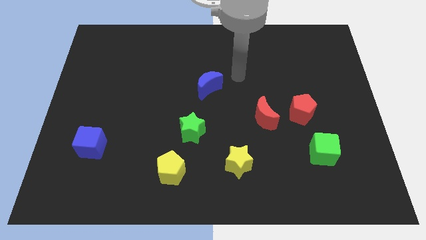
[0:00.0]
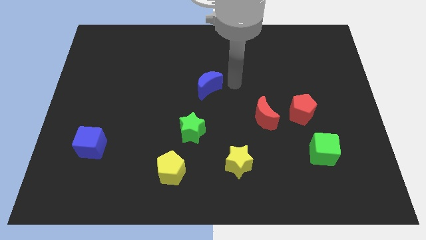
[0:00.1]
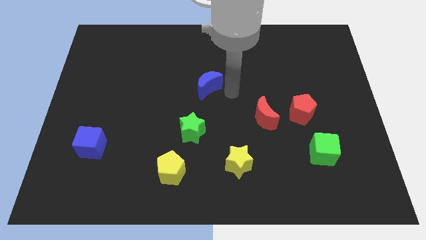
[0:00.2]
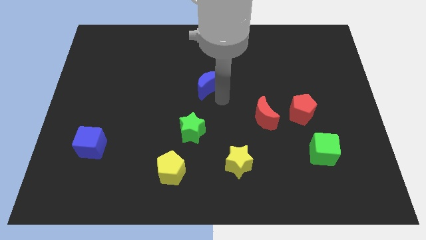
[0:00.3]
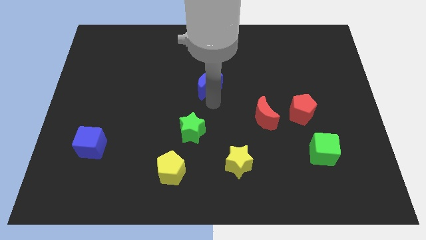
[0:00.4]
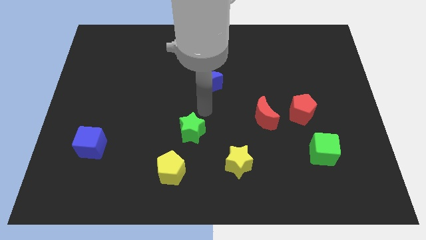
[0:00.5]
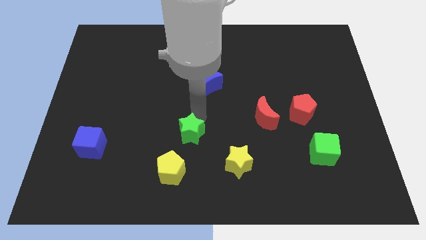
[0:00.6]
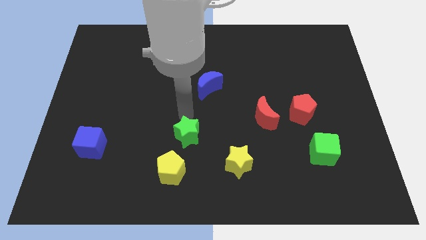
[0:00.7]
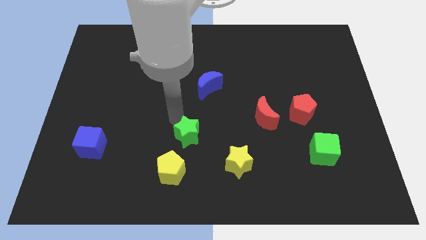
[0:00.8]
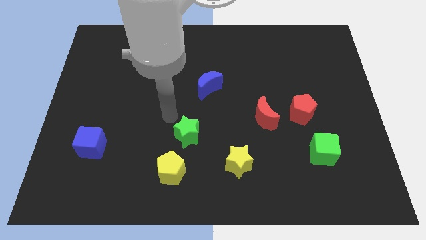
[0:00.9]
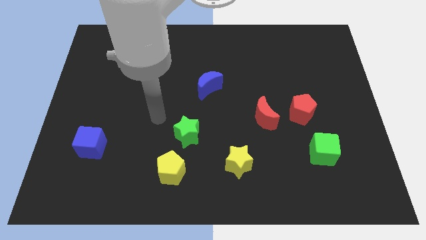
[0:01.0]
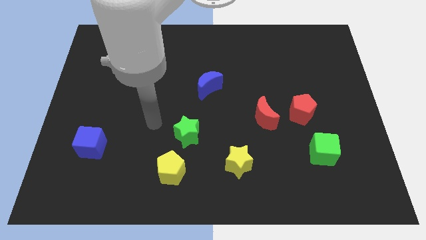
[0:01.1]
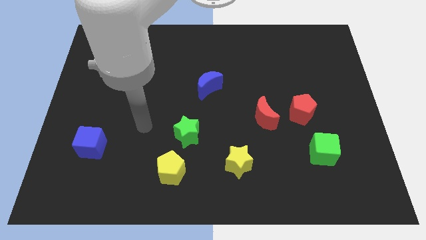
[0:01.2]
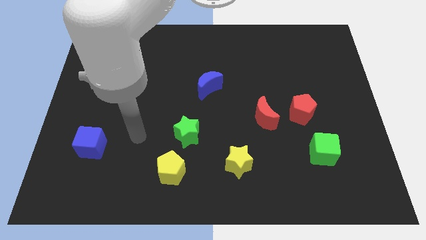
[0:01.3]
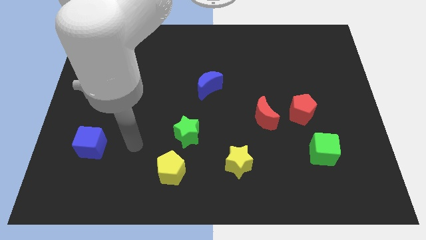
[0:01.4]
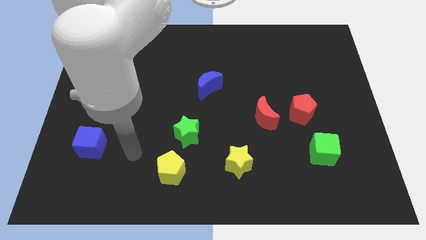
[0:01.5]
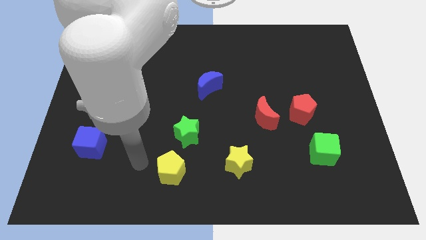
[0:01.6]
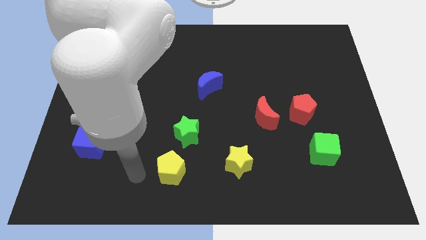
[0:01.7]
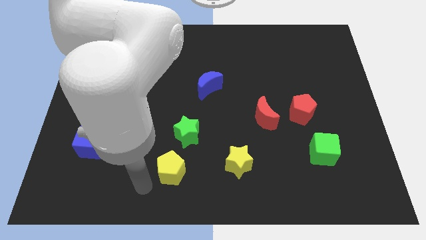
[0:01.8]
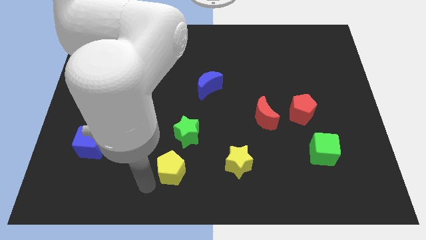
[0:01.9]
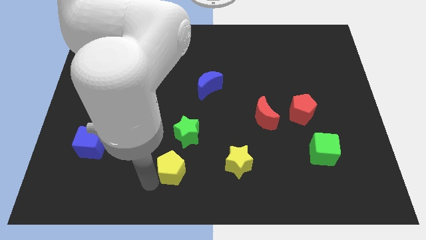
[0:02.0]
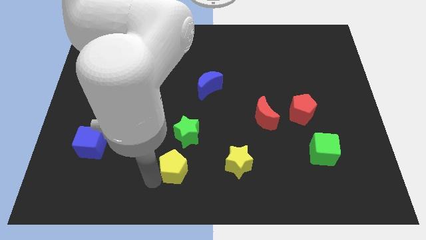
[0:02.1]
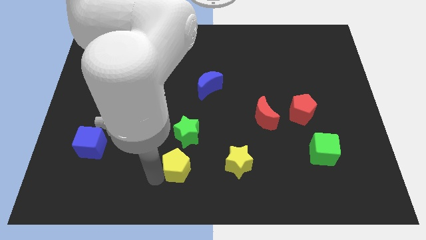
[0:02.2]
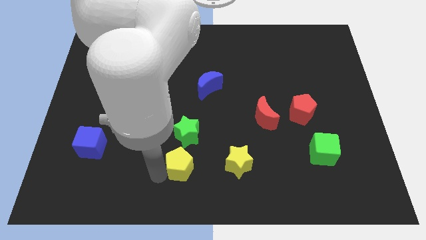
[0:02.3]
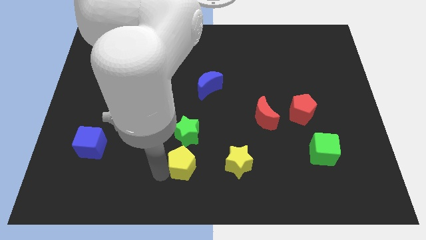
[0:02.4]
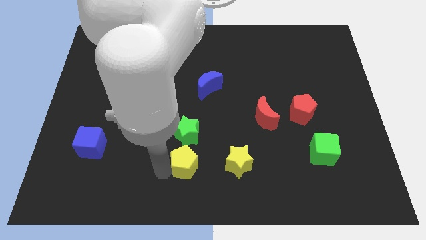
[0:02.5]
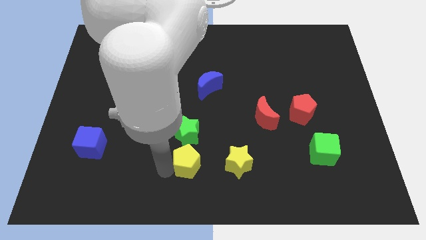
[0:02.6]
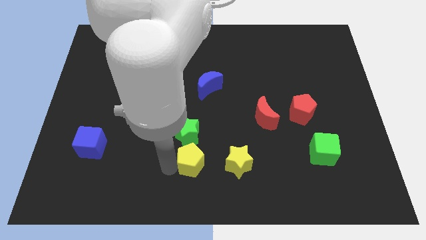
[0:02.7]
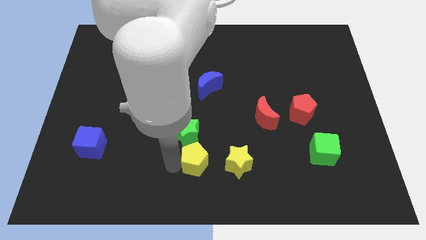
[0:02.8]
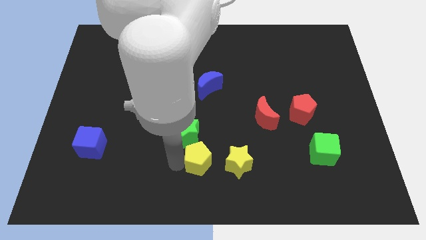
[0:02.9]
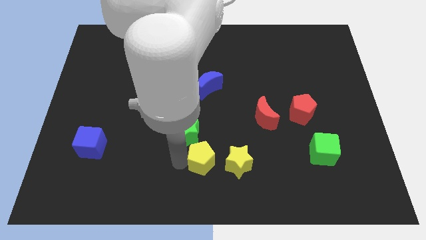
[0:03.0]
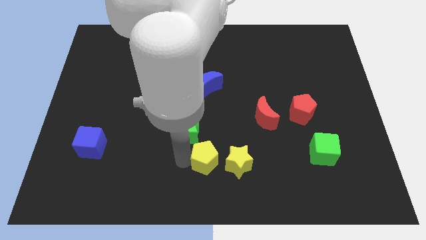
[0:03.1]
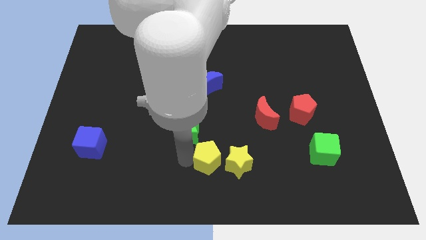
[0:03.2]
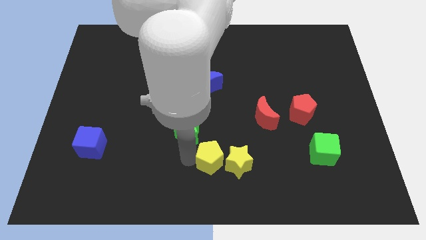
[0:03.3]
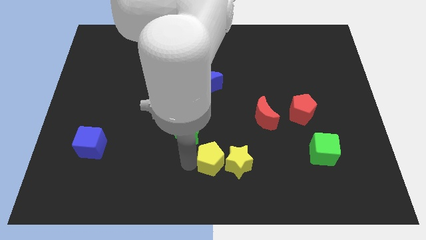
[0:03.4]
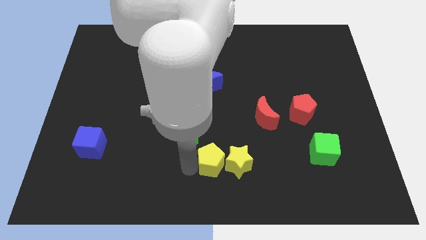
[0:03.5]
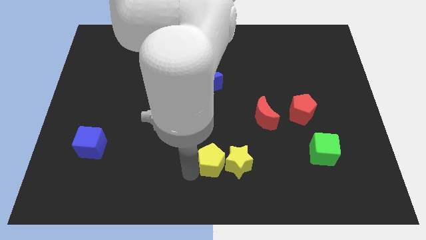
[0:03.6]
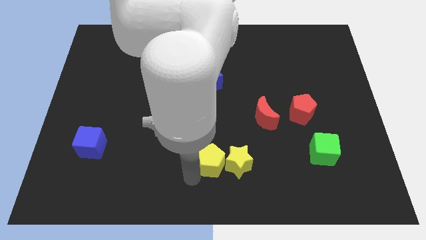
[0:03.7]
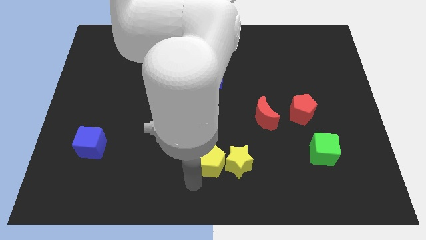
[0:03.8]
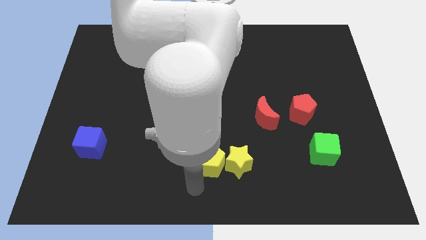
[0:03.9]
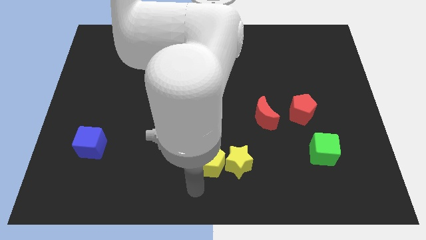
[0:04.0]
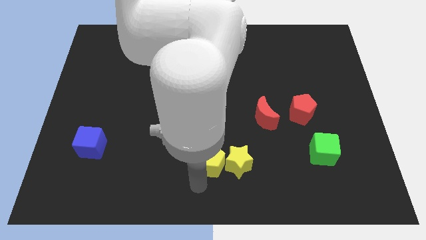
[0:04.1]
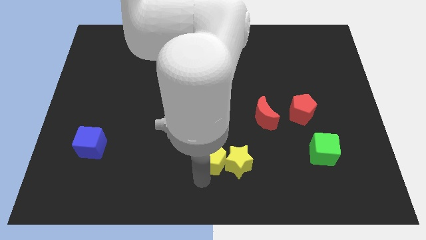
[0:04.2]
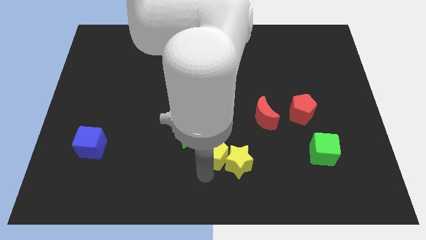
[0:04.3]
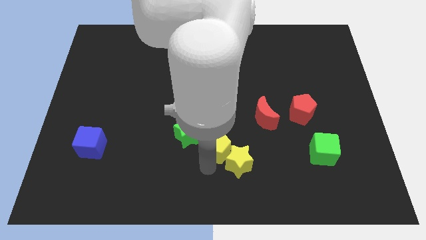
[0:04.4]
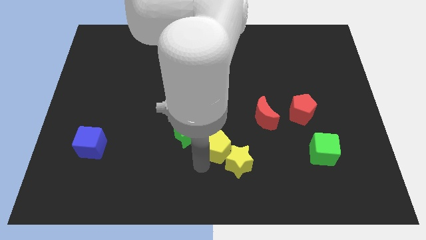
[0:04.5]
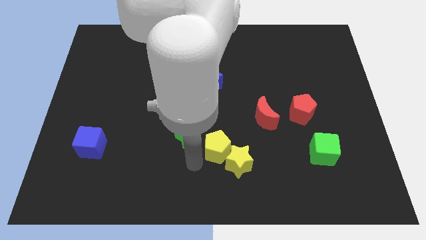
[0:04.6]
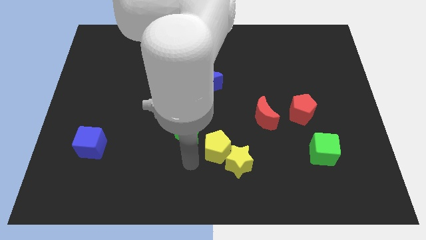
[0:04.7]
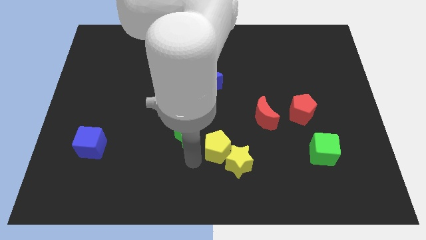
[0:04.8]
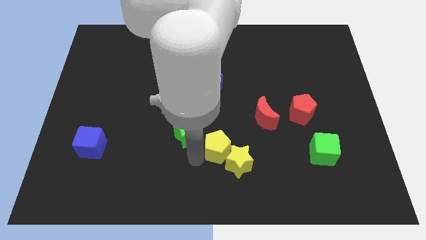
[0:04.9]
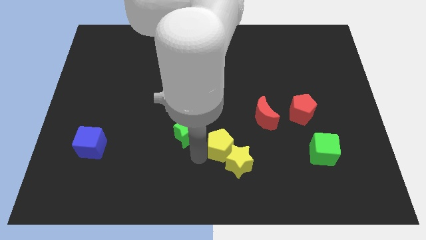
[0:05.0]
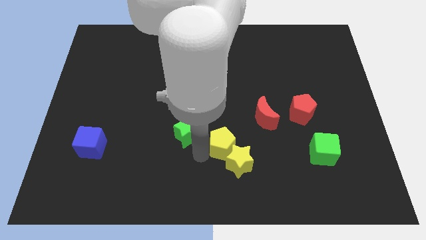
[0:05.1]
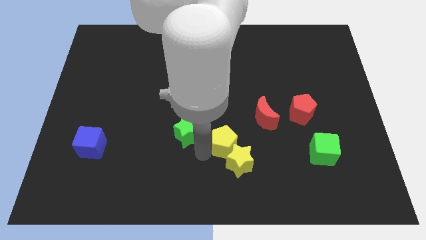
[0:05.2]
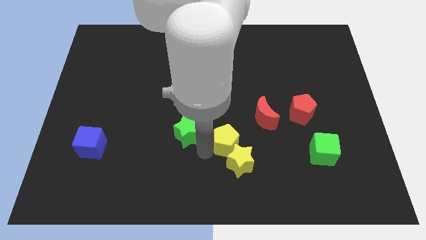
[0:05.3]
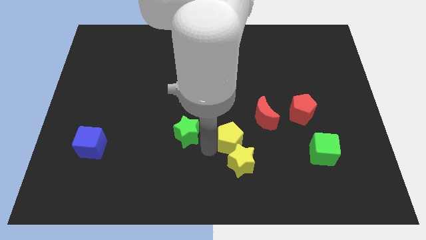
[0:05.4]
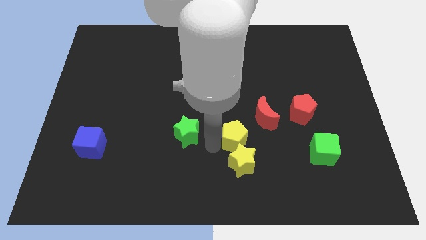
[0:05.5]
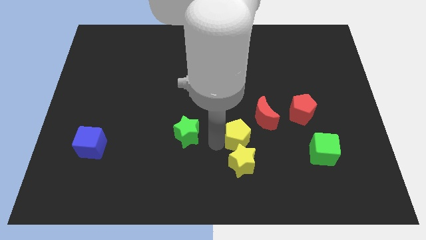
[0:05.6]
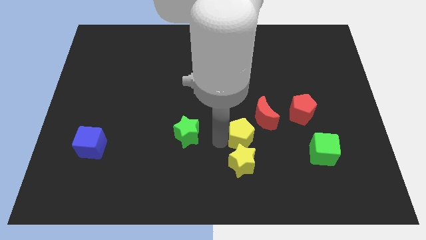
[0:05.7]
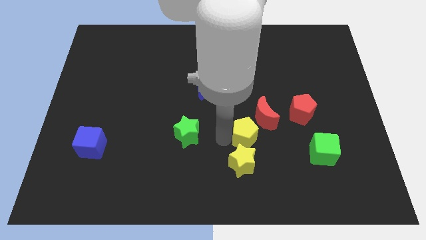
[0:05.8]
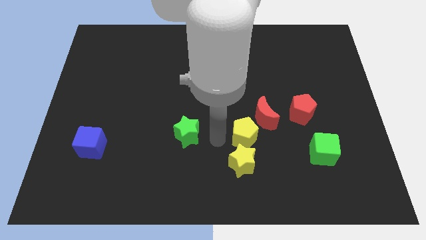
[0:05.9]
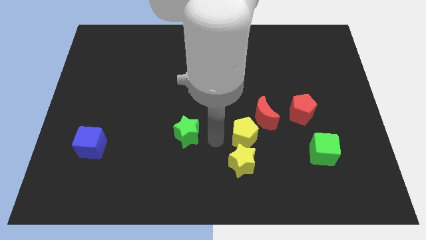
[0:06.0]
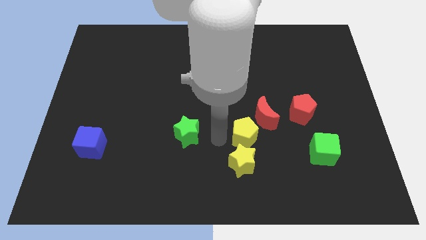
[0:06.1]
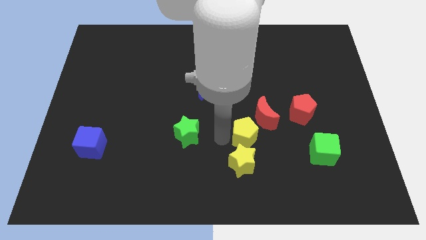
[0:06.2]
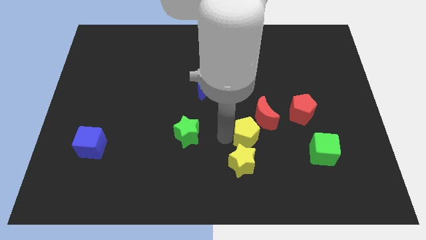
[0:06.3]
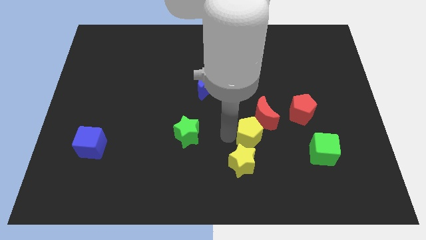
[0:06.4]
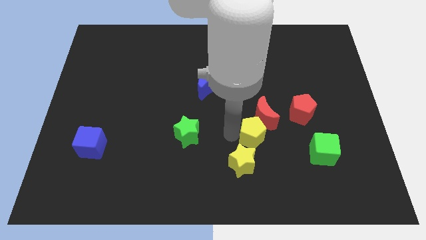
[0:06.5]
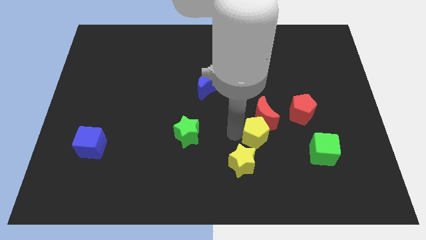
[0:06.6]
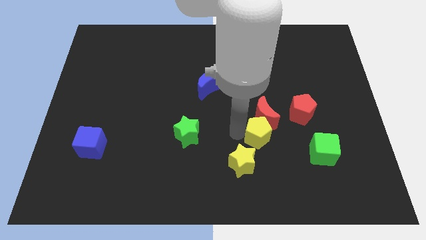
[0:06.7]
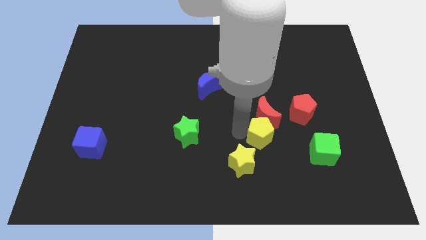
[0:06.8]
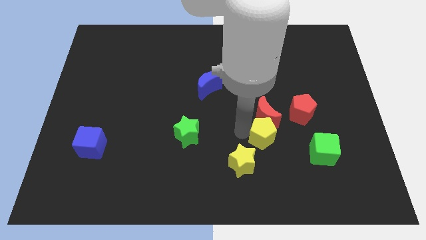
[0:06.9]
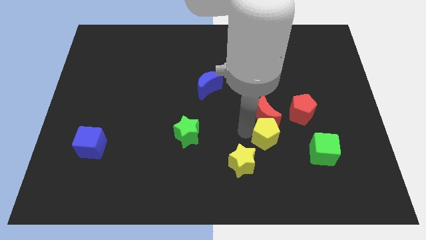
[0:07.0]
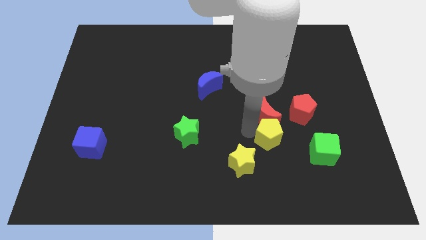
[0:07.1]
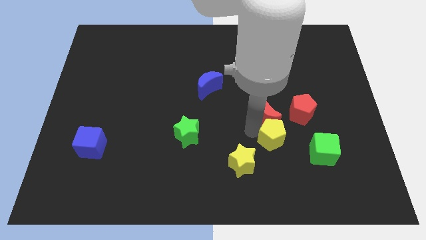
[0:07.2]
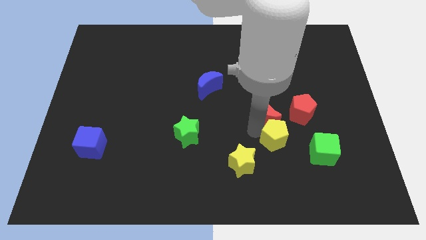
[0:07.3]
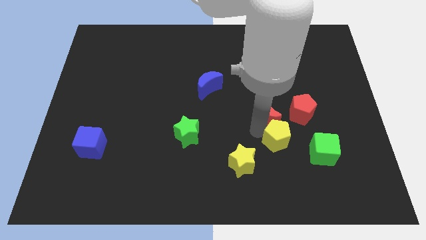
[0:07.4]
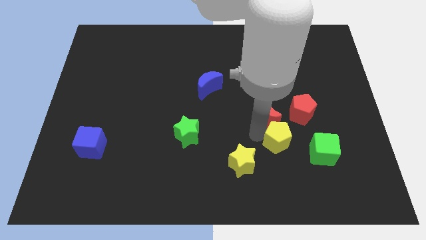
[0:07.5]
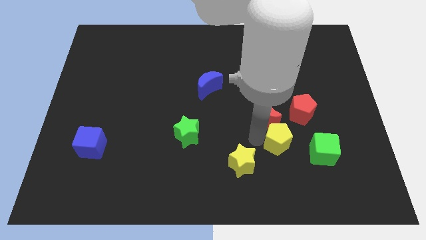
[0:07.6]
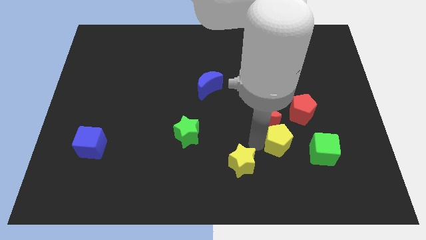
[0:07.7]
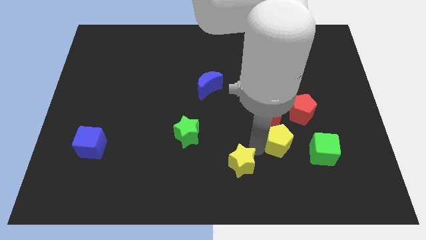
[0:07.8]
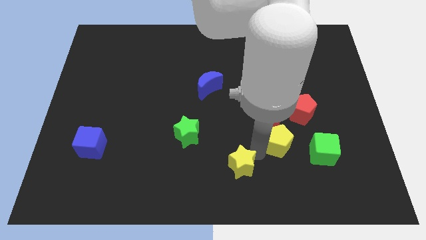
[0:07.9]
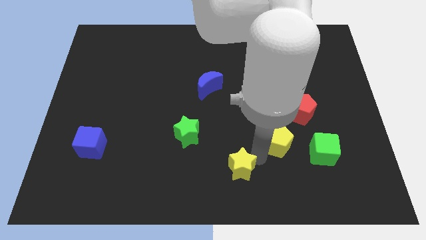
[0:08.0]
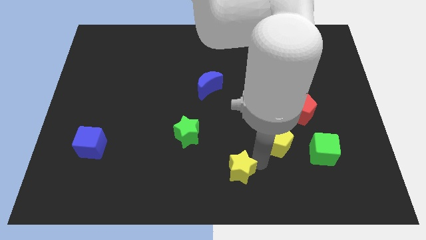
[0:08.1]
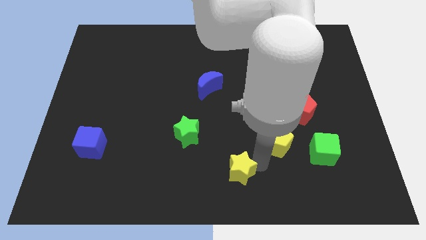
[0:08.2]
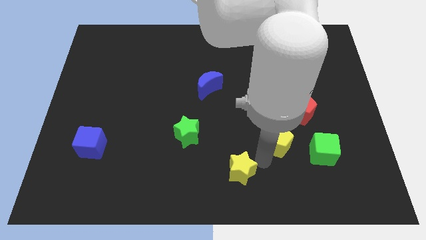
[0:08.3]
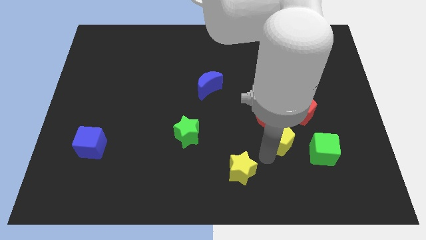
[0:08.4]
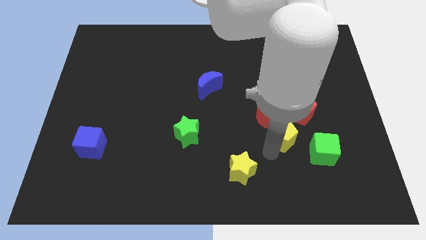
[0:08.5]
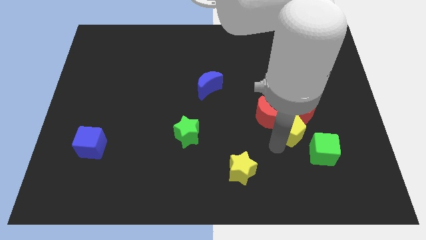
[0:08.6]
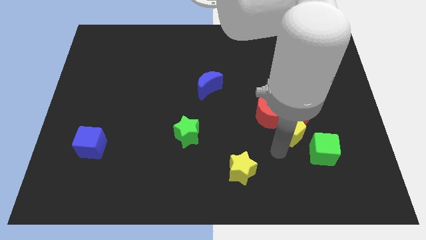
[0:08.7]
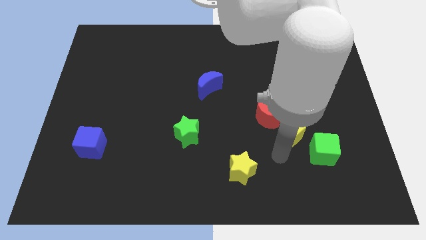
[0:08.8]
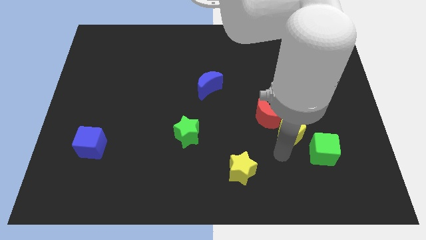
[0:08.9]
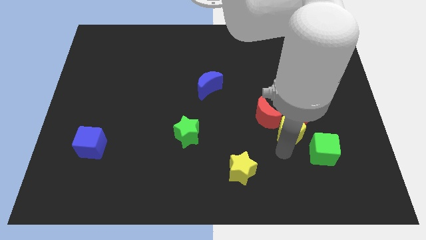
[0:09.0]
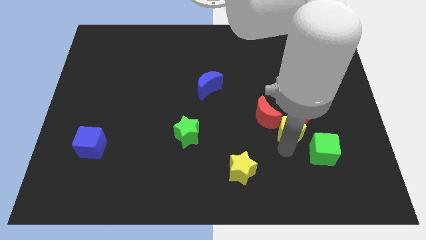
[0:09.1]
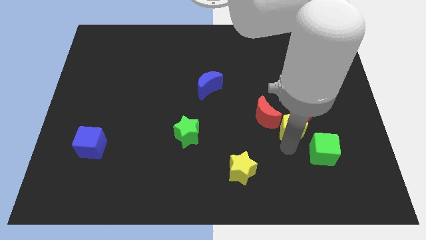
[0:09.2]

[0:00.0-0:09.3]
slide the yellow pentagon towards the red pentagon
